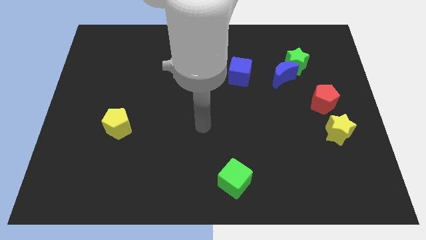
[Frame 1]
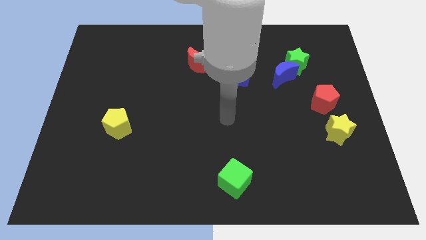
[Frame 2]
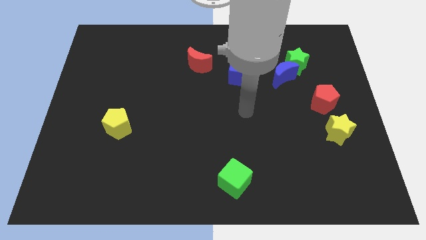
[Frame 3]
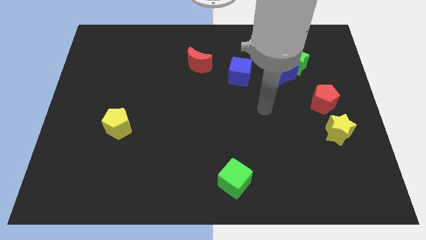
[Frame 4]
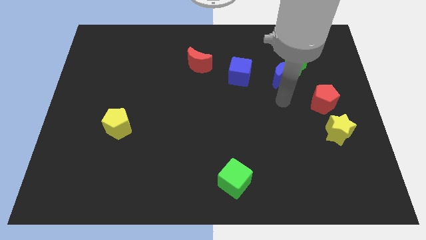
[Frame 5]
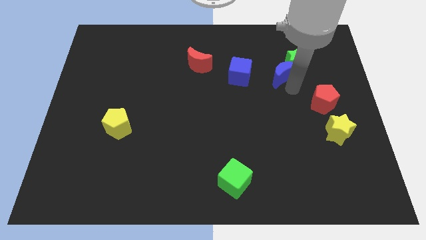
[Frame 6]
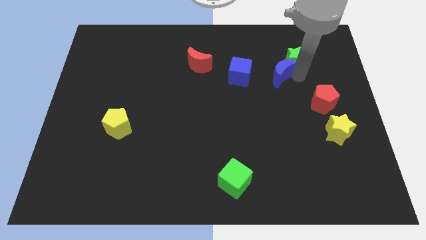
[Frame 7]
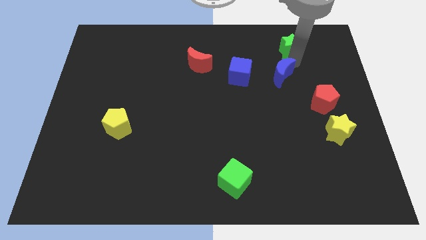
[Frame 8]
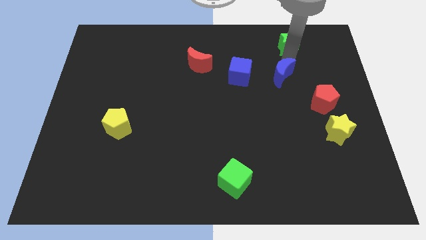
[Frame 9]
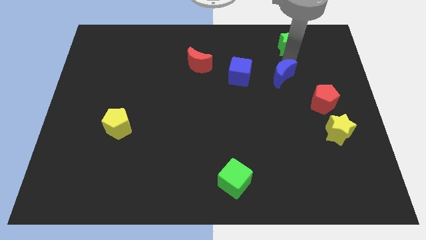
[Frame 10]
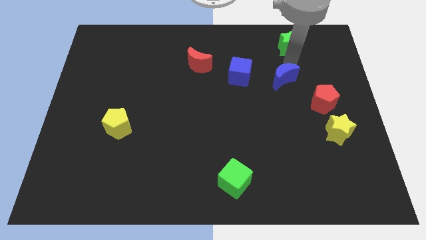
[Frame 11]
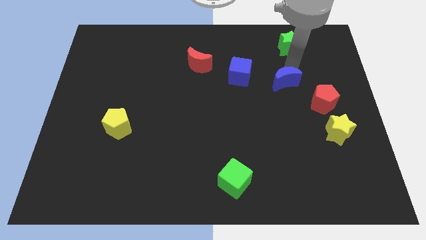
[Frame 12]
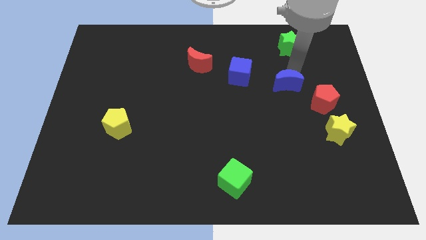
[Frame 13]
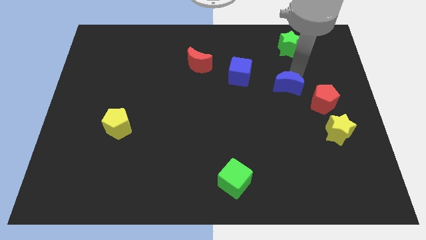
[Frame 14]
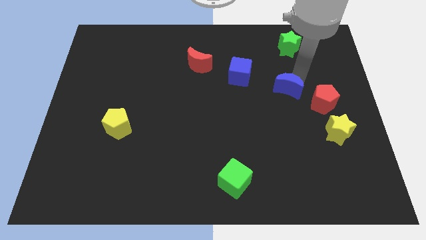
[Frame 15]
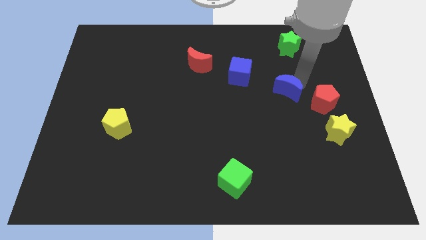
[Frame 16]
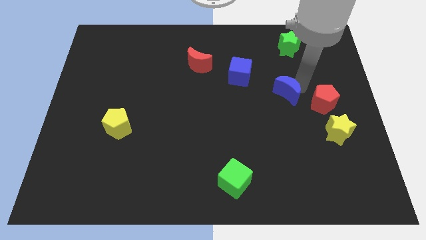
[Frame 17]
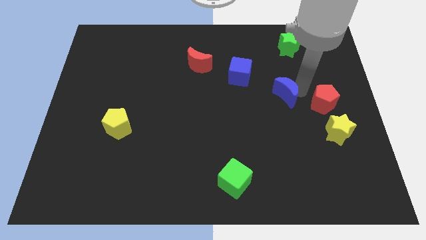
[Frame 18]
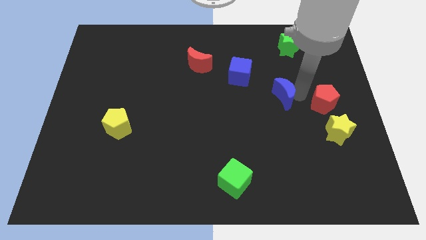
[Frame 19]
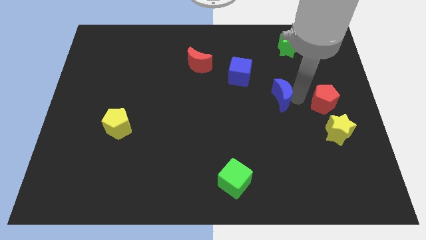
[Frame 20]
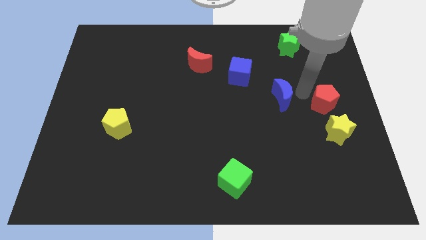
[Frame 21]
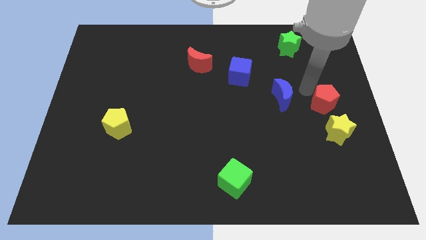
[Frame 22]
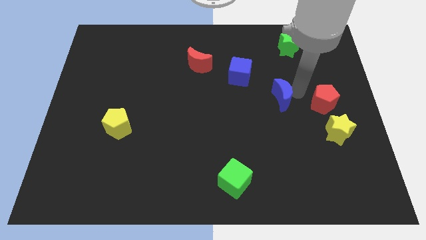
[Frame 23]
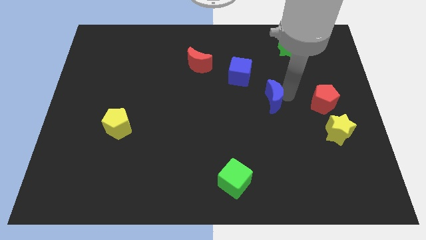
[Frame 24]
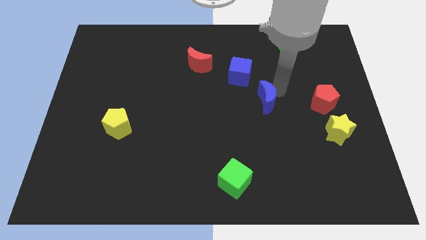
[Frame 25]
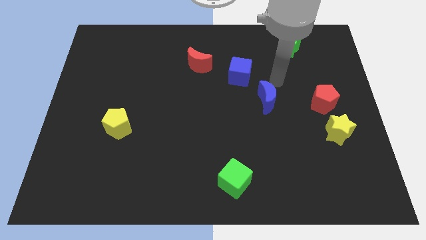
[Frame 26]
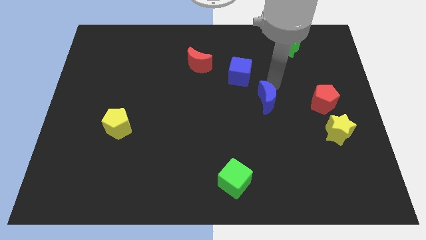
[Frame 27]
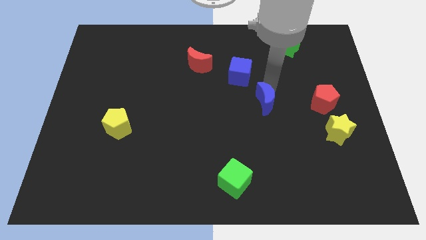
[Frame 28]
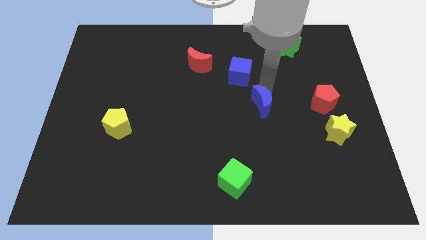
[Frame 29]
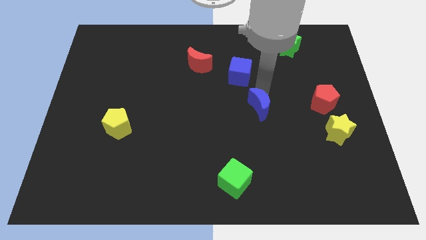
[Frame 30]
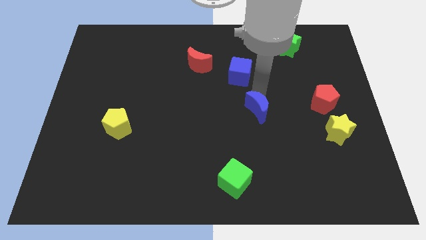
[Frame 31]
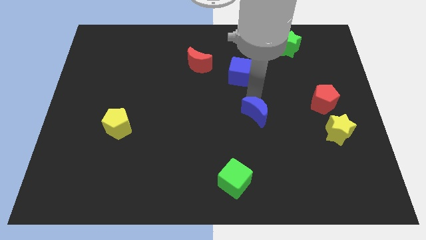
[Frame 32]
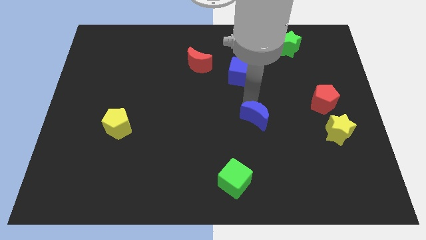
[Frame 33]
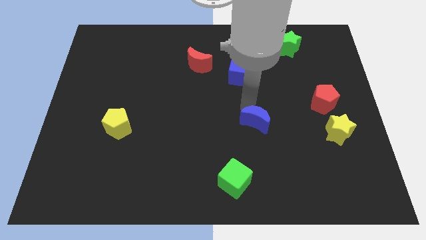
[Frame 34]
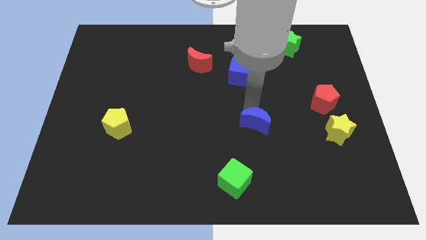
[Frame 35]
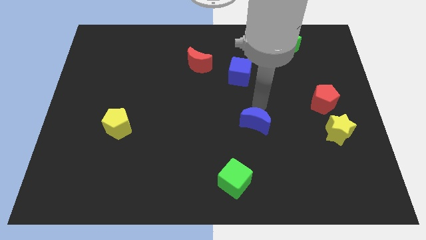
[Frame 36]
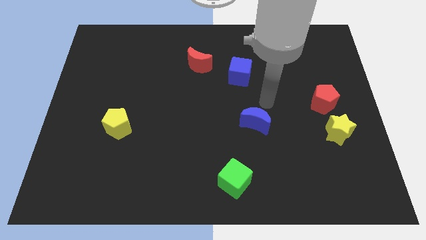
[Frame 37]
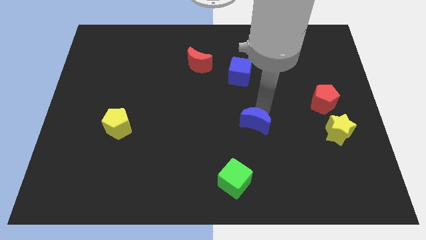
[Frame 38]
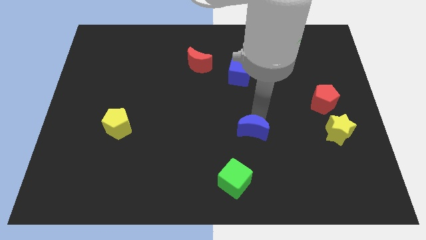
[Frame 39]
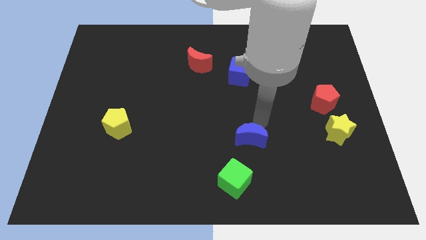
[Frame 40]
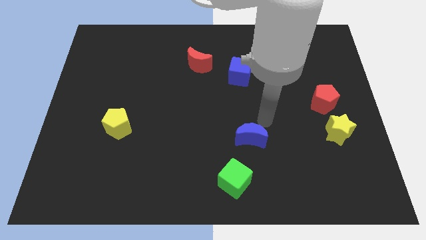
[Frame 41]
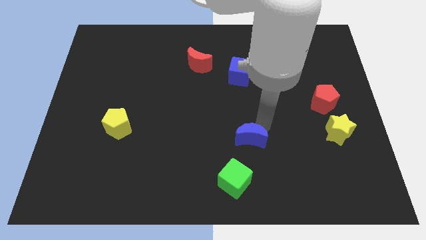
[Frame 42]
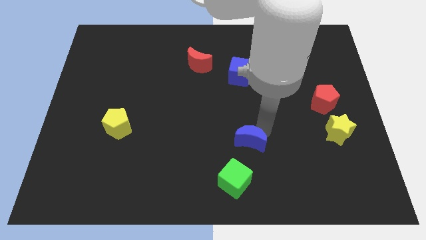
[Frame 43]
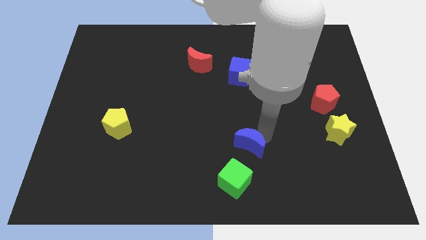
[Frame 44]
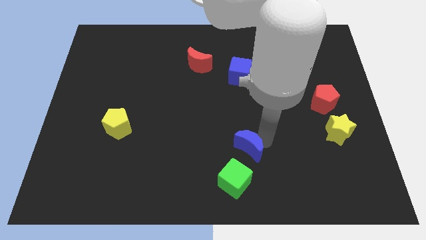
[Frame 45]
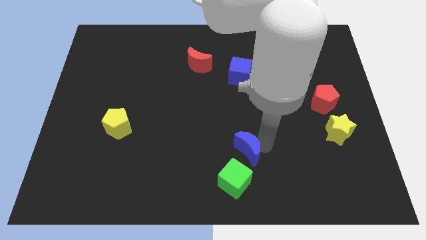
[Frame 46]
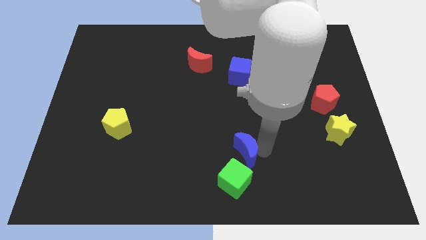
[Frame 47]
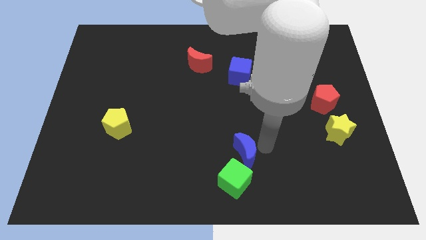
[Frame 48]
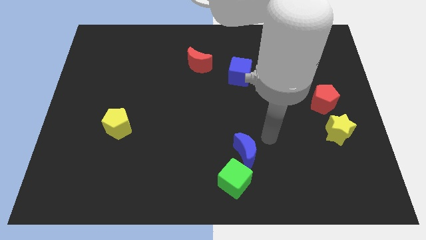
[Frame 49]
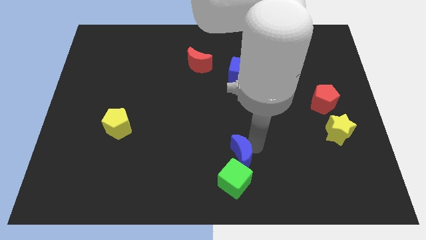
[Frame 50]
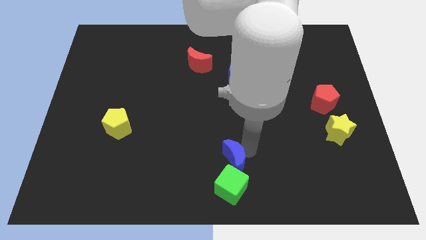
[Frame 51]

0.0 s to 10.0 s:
push the blue moon to the bottom side
